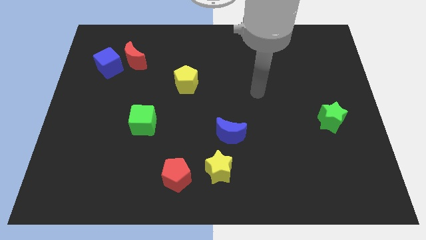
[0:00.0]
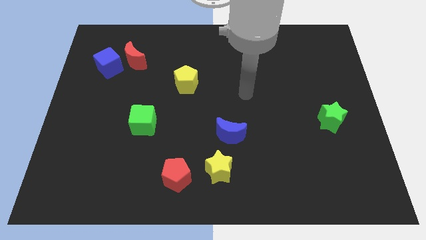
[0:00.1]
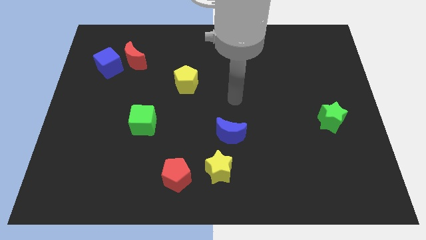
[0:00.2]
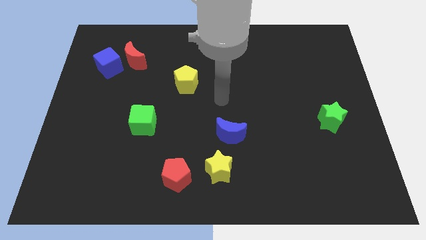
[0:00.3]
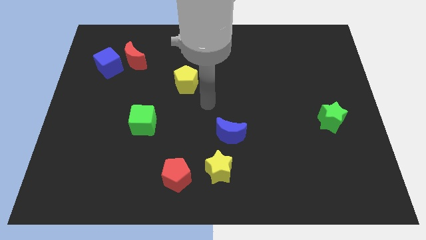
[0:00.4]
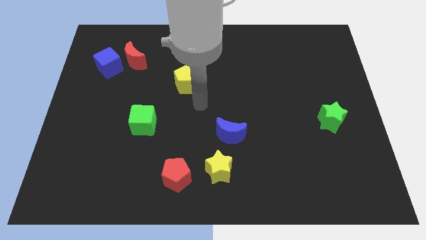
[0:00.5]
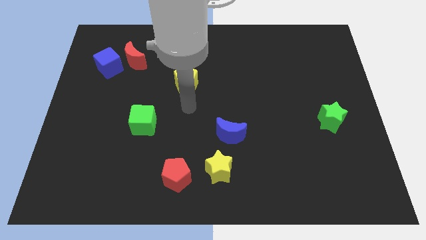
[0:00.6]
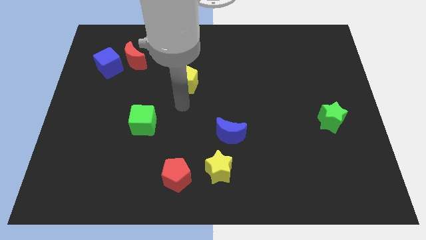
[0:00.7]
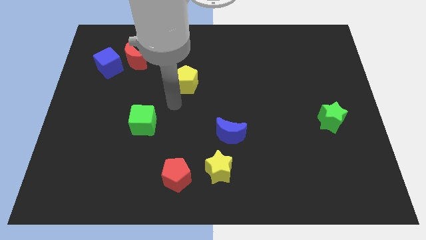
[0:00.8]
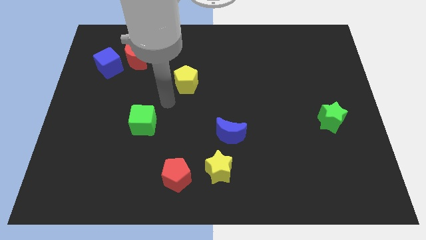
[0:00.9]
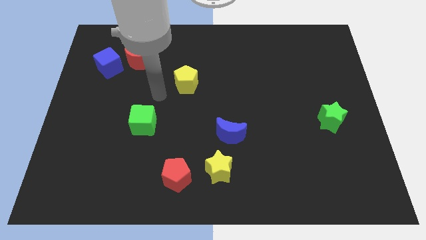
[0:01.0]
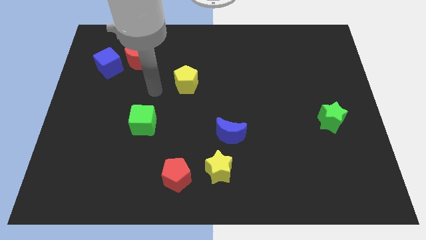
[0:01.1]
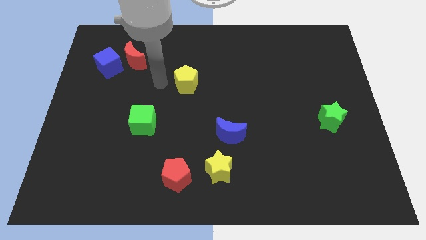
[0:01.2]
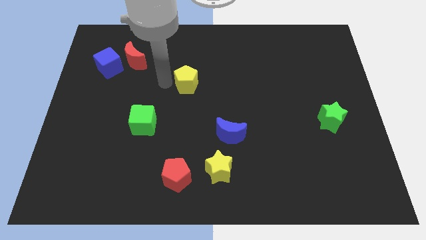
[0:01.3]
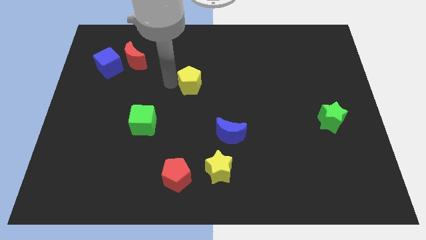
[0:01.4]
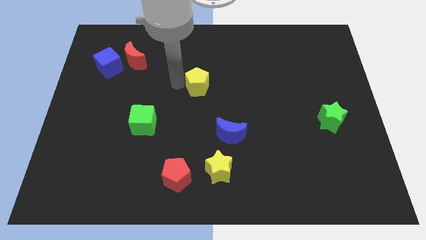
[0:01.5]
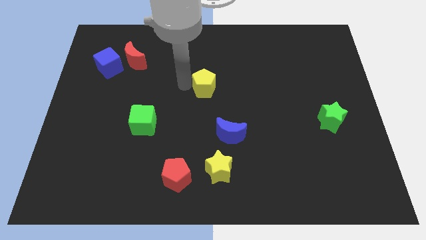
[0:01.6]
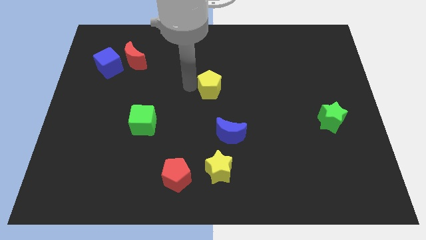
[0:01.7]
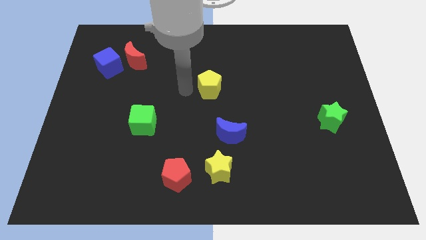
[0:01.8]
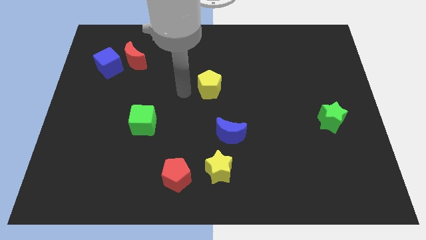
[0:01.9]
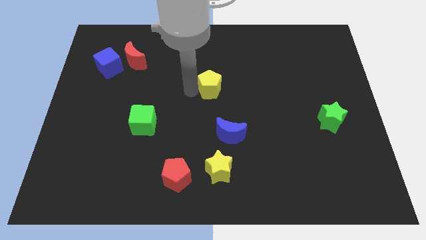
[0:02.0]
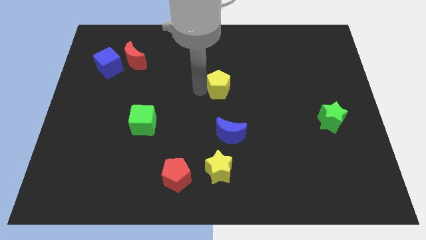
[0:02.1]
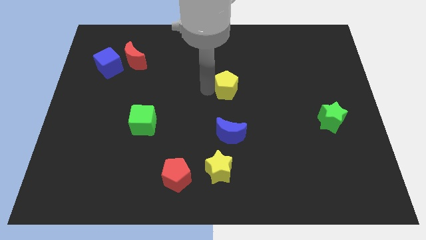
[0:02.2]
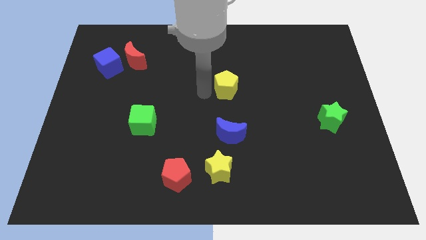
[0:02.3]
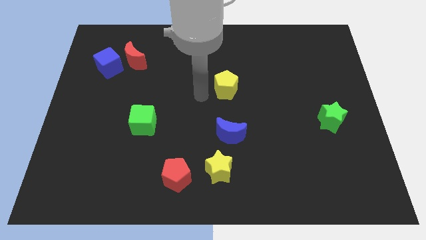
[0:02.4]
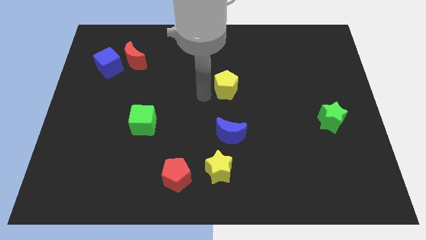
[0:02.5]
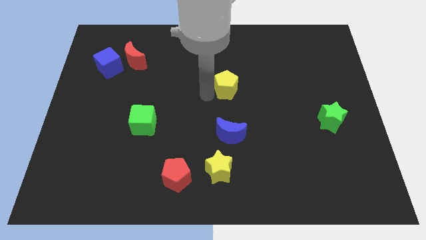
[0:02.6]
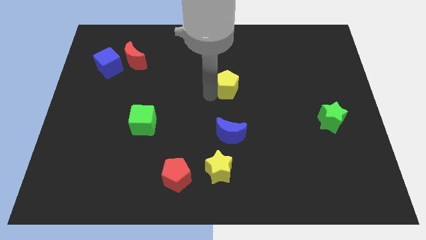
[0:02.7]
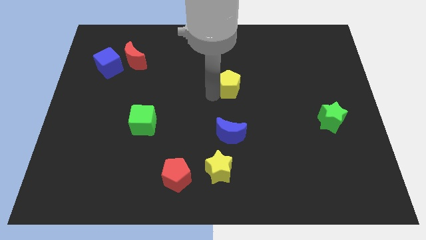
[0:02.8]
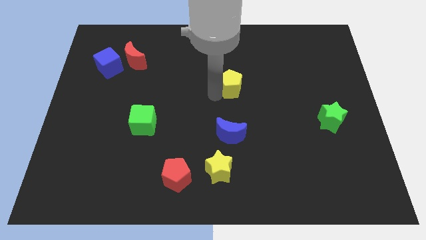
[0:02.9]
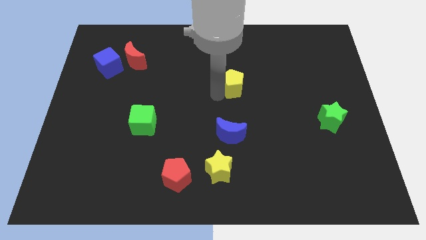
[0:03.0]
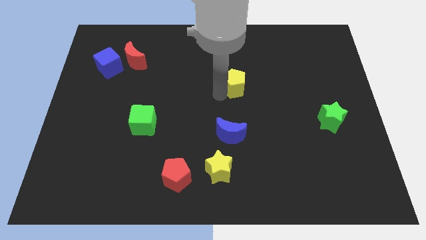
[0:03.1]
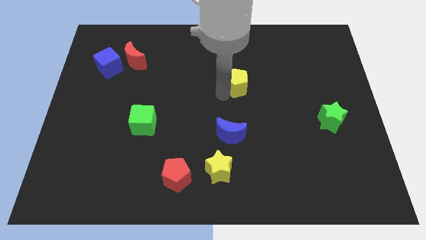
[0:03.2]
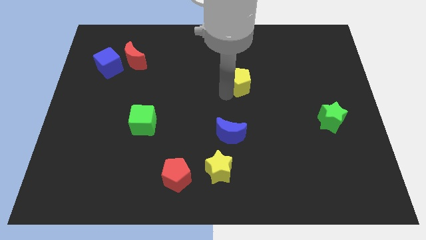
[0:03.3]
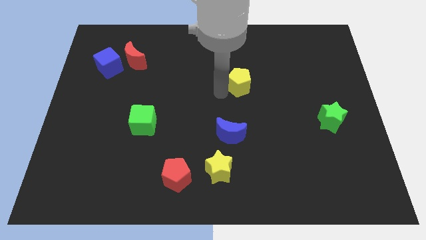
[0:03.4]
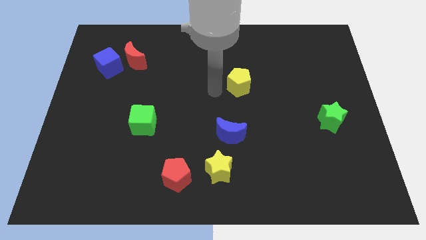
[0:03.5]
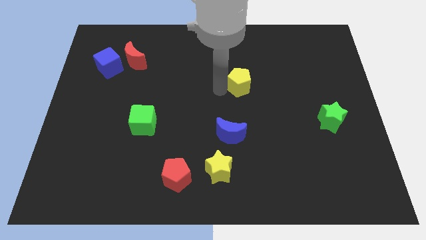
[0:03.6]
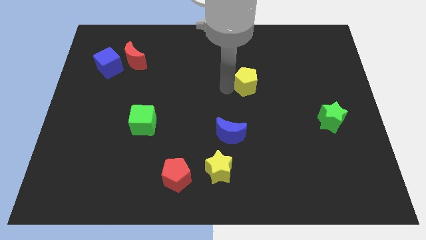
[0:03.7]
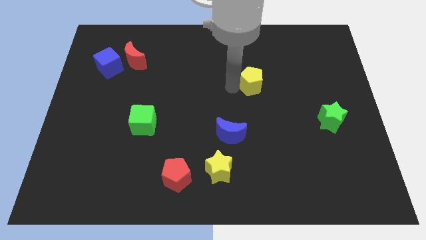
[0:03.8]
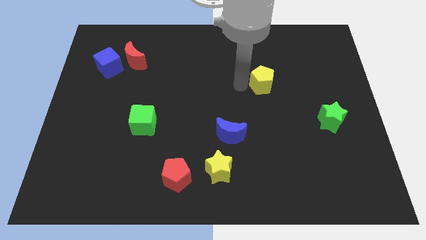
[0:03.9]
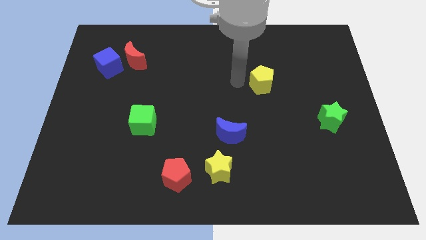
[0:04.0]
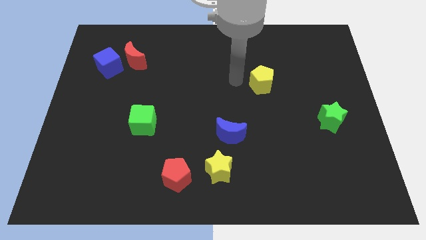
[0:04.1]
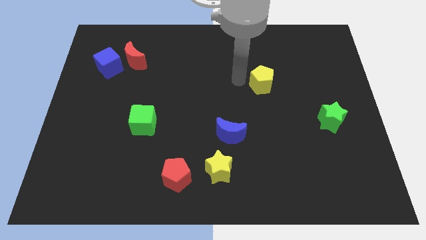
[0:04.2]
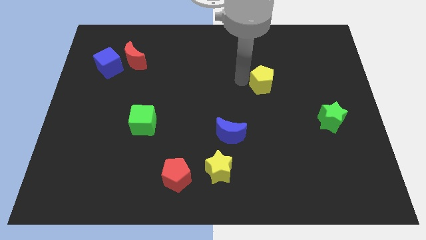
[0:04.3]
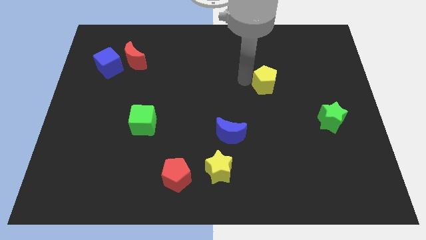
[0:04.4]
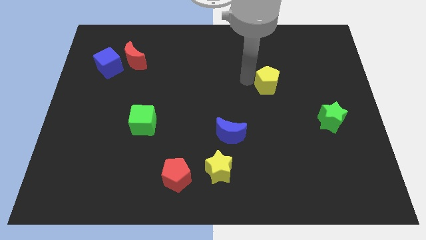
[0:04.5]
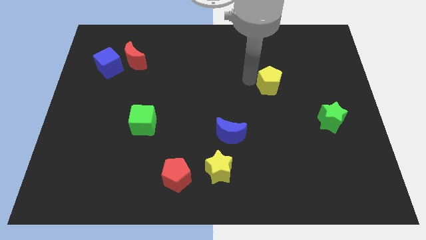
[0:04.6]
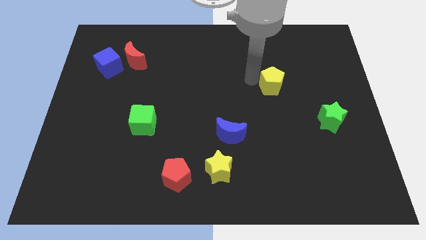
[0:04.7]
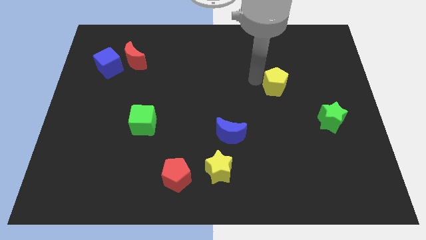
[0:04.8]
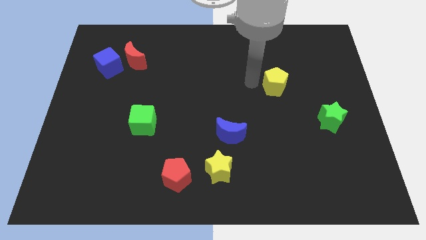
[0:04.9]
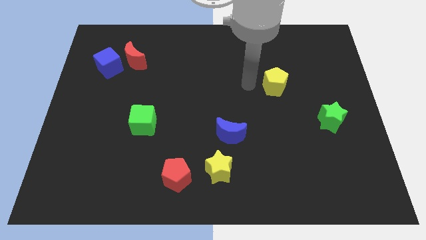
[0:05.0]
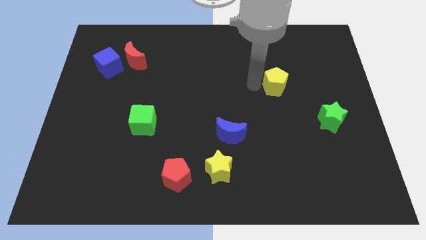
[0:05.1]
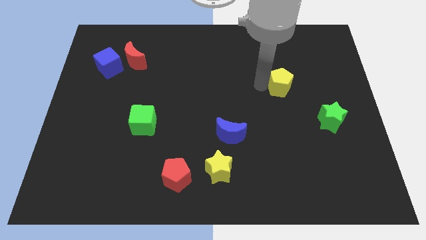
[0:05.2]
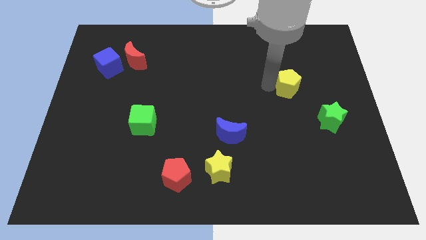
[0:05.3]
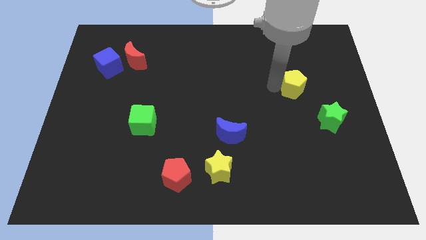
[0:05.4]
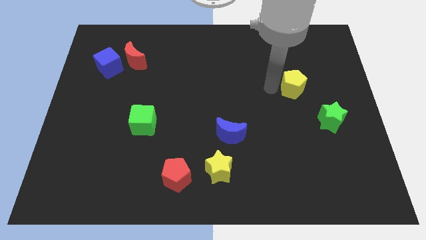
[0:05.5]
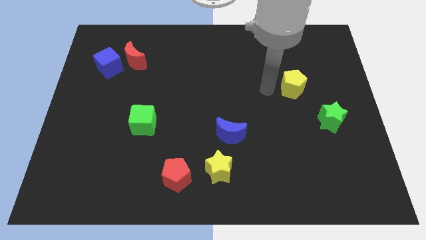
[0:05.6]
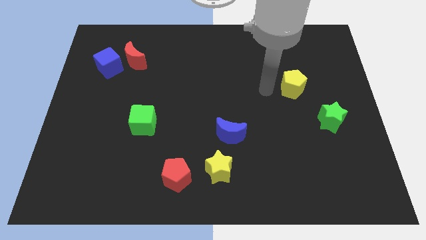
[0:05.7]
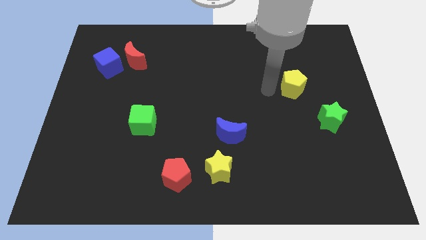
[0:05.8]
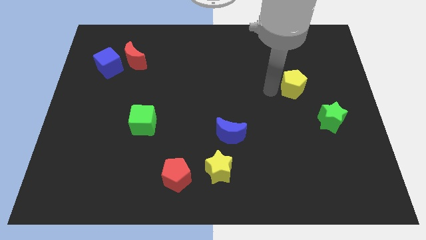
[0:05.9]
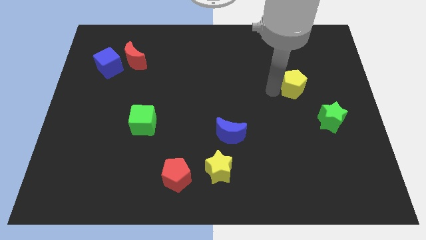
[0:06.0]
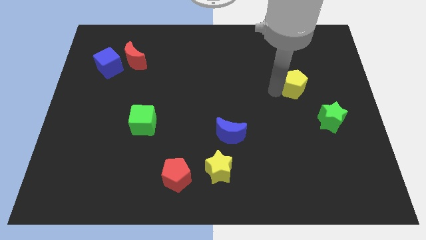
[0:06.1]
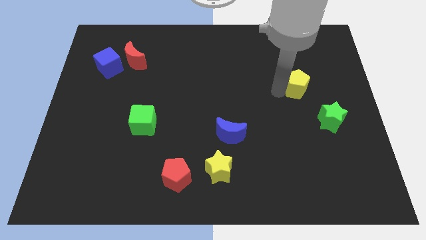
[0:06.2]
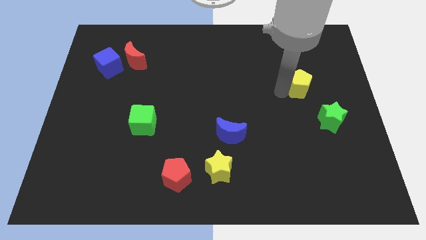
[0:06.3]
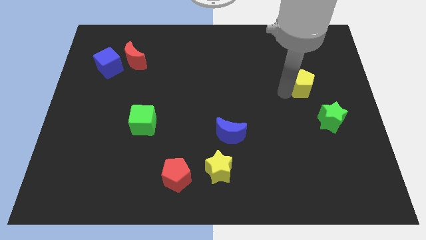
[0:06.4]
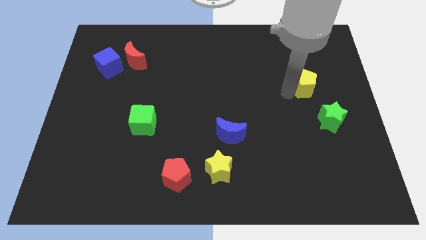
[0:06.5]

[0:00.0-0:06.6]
push the yellow pentagon to the top side of the green star

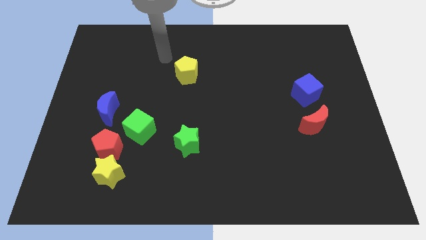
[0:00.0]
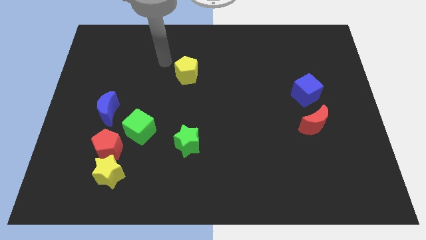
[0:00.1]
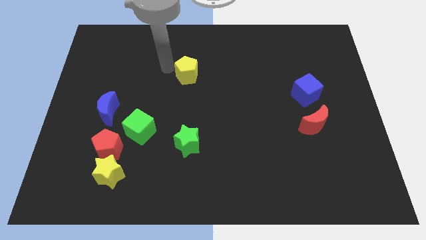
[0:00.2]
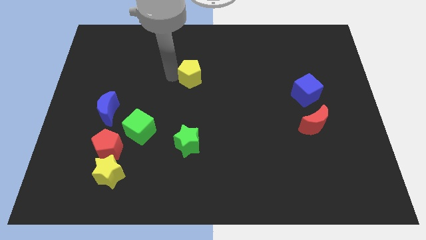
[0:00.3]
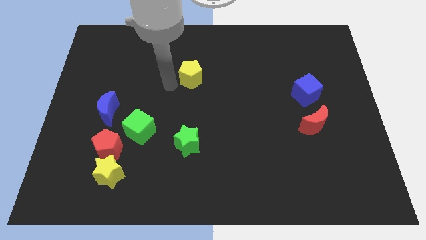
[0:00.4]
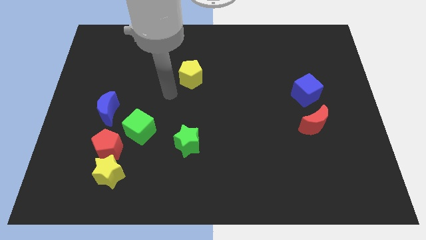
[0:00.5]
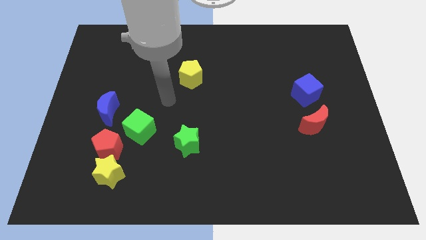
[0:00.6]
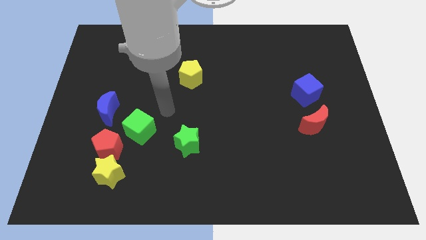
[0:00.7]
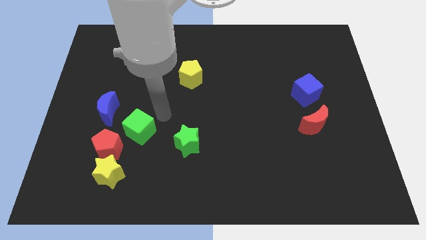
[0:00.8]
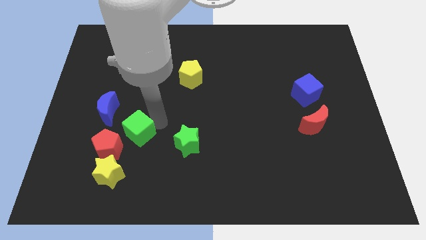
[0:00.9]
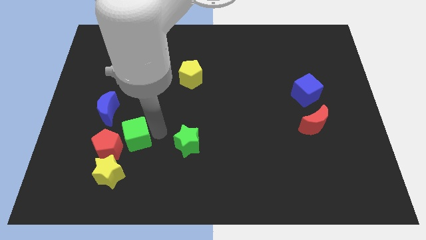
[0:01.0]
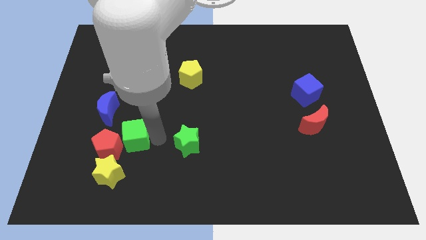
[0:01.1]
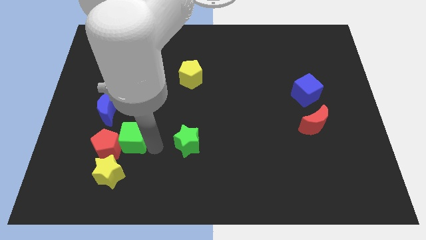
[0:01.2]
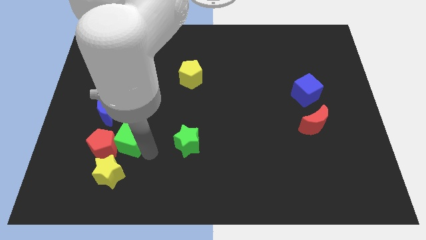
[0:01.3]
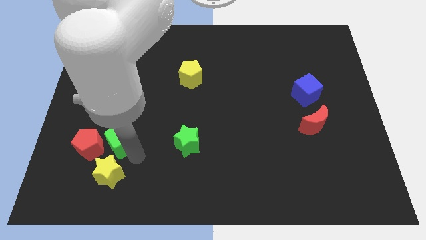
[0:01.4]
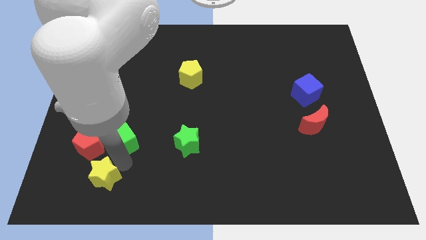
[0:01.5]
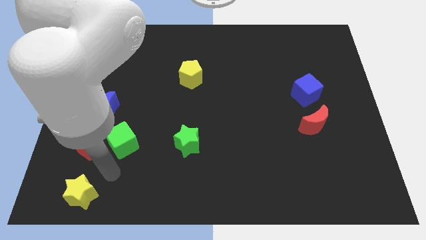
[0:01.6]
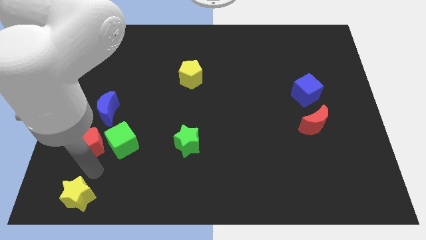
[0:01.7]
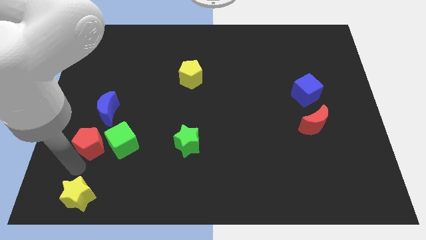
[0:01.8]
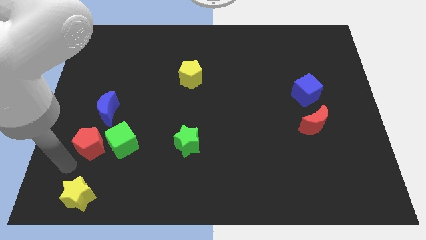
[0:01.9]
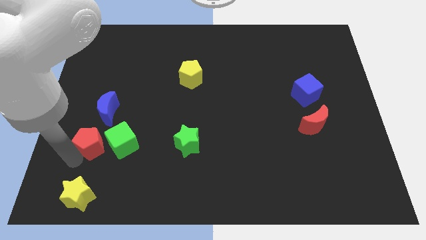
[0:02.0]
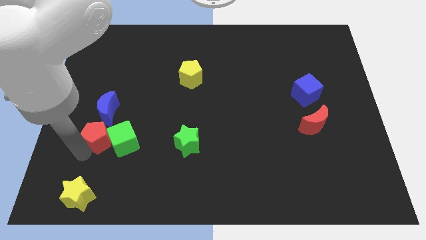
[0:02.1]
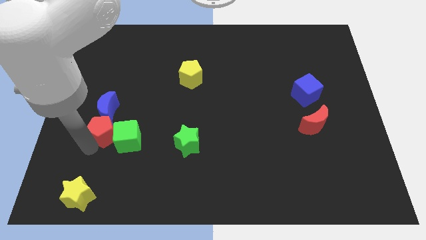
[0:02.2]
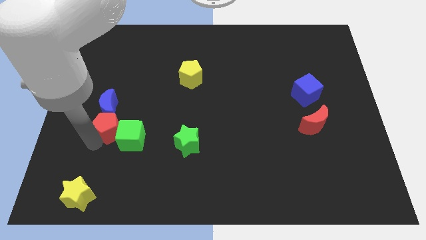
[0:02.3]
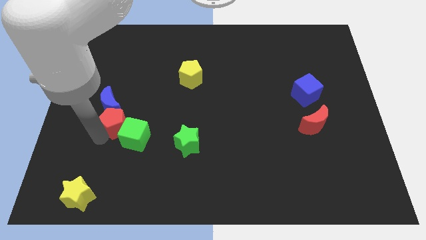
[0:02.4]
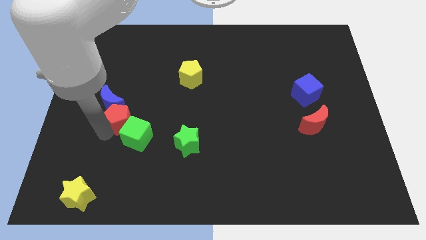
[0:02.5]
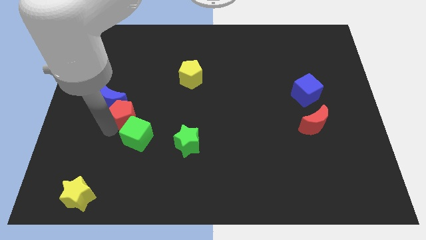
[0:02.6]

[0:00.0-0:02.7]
move the red pentagon right of the blue moon
